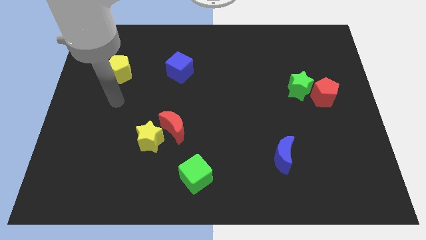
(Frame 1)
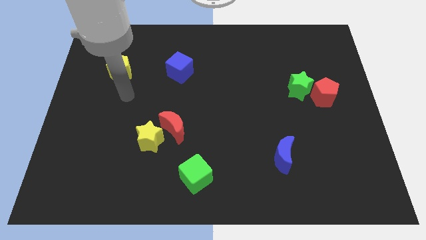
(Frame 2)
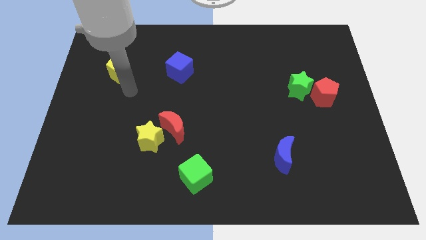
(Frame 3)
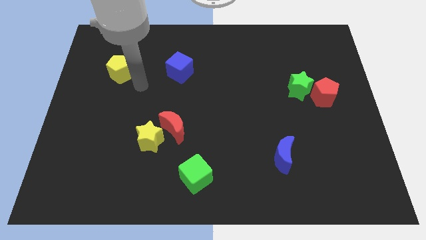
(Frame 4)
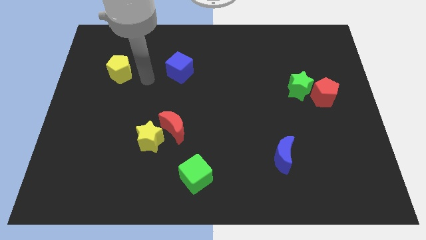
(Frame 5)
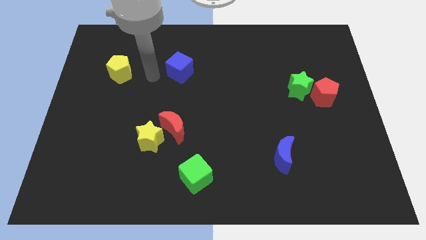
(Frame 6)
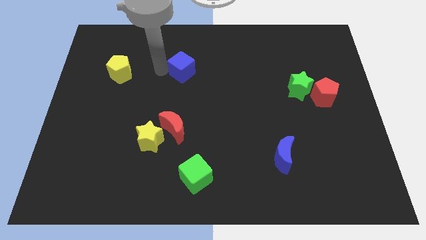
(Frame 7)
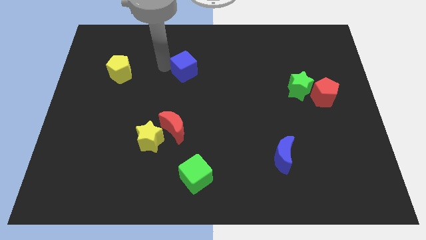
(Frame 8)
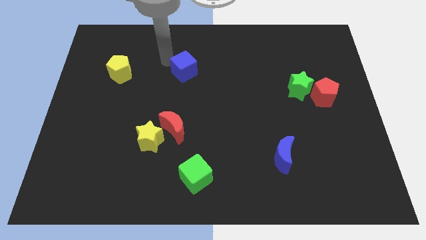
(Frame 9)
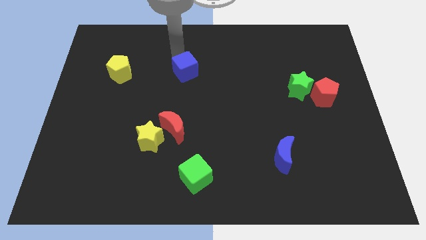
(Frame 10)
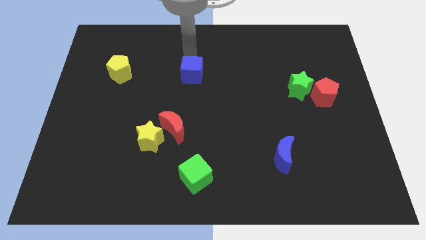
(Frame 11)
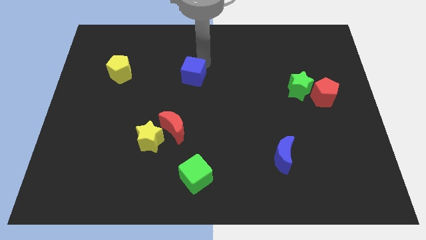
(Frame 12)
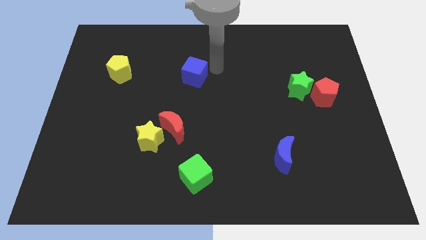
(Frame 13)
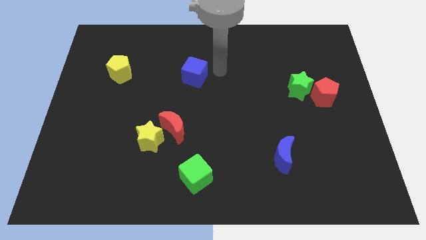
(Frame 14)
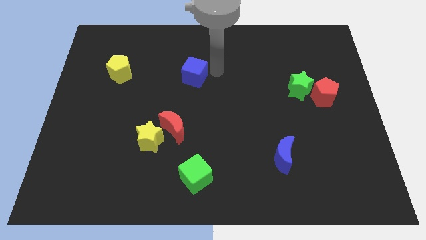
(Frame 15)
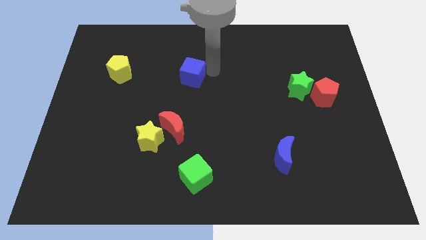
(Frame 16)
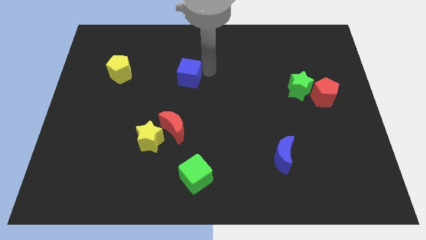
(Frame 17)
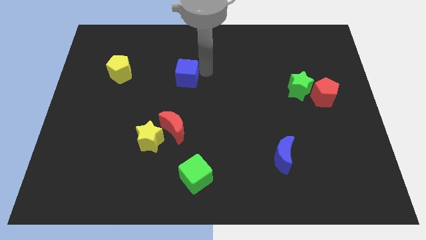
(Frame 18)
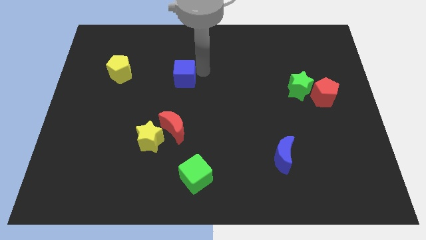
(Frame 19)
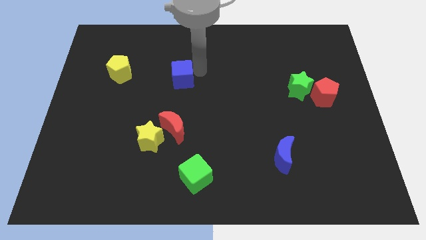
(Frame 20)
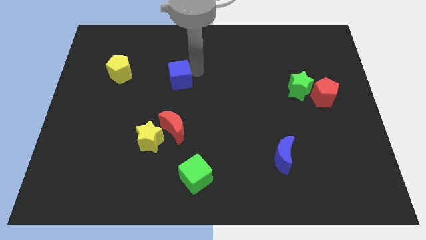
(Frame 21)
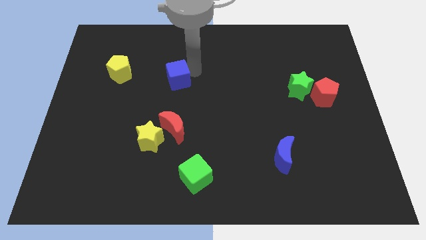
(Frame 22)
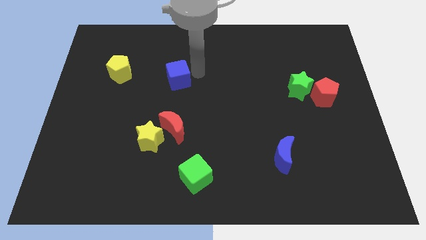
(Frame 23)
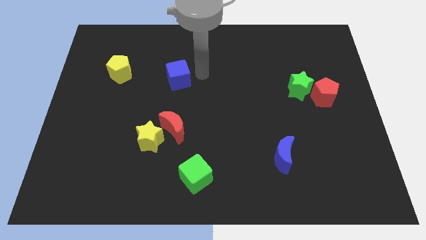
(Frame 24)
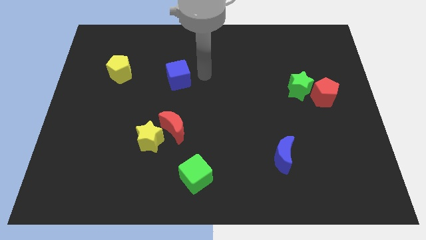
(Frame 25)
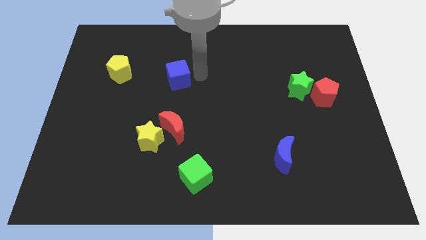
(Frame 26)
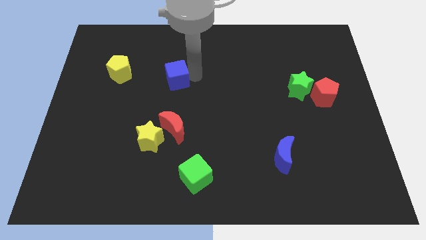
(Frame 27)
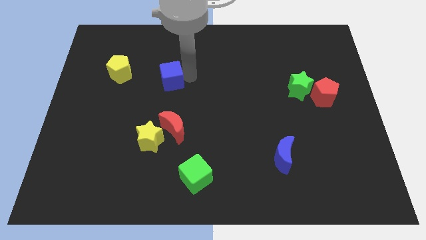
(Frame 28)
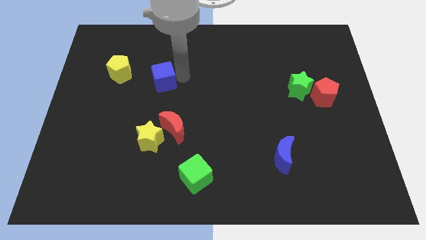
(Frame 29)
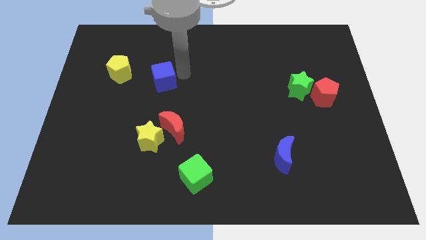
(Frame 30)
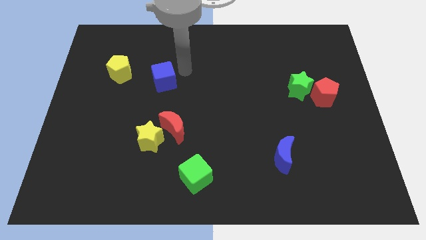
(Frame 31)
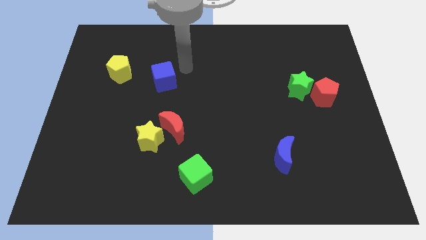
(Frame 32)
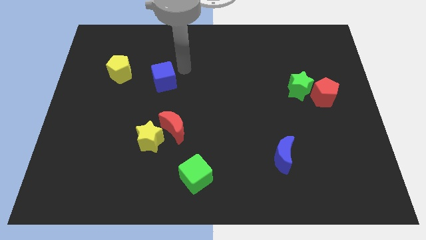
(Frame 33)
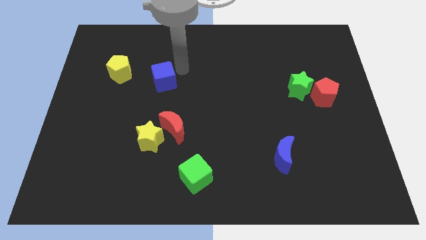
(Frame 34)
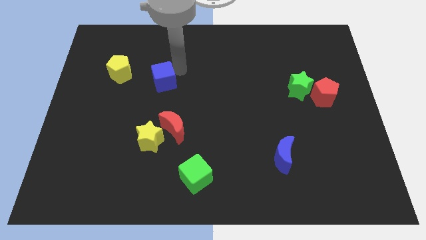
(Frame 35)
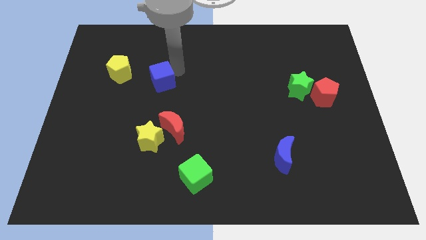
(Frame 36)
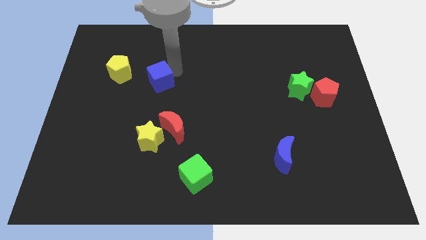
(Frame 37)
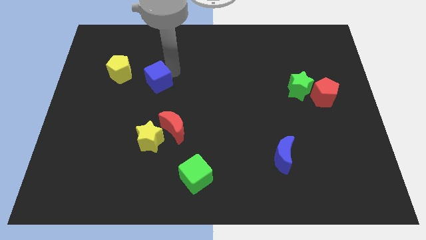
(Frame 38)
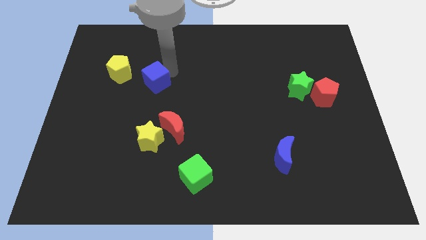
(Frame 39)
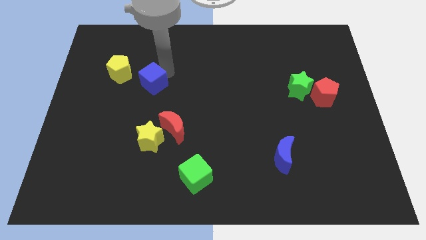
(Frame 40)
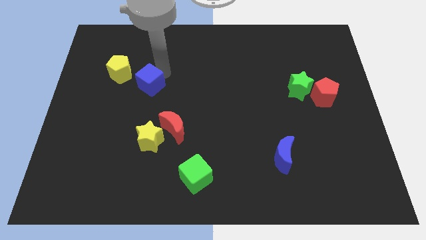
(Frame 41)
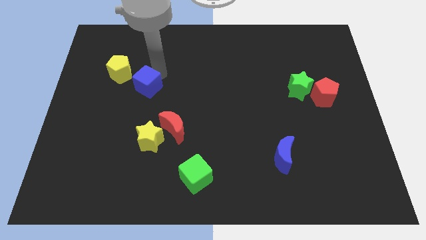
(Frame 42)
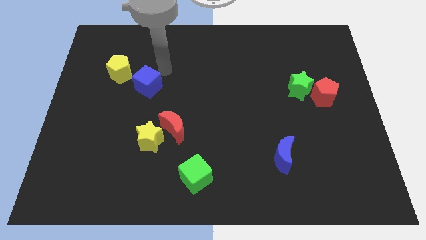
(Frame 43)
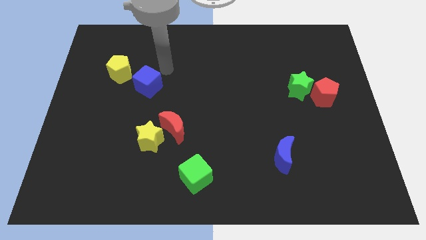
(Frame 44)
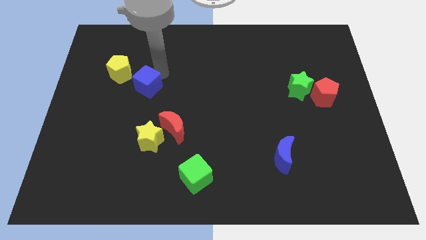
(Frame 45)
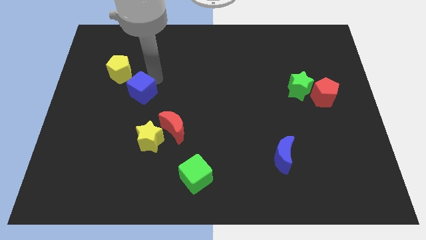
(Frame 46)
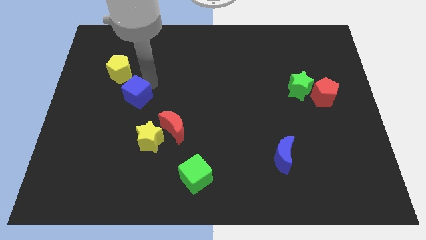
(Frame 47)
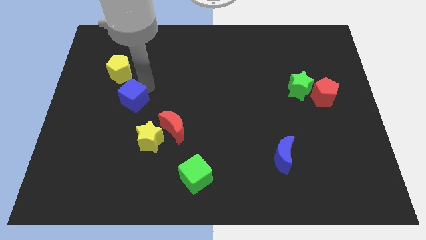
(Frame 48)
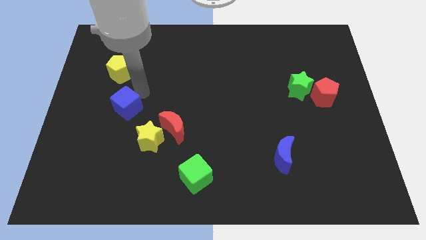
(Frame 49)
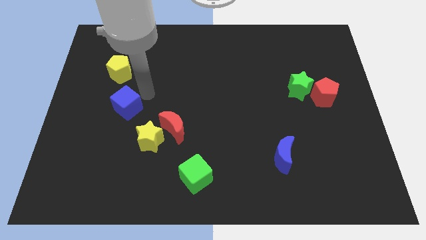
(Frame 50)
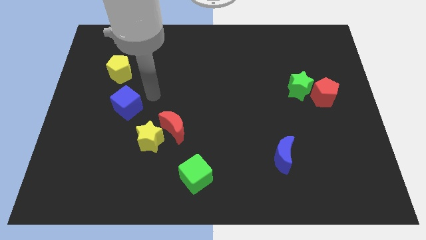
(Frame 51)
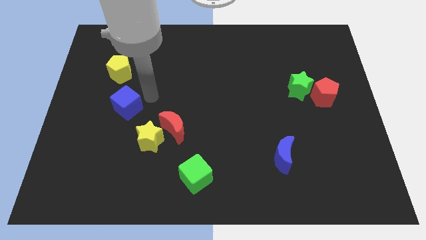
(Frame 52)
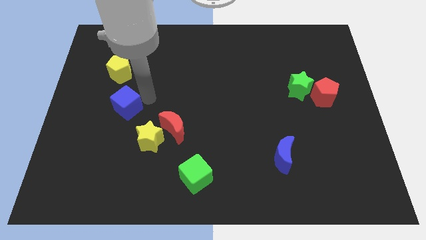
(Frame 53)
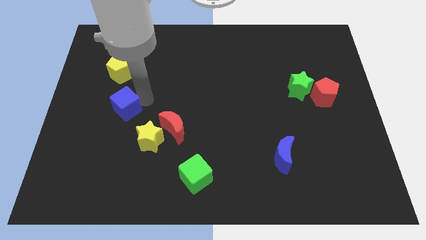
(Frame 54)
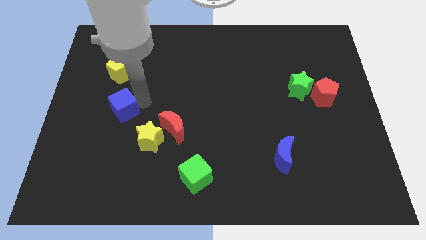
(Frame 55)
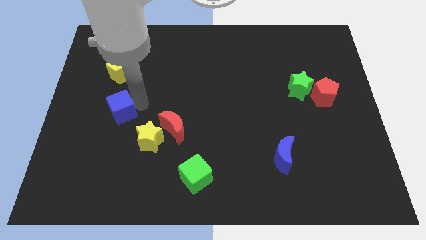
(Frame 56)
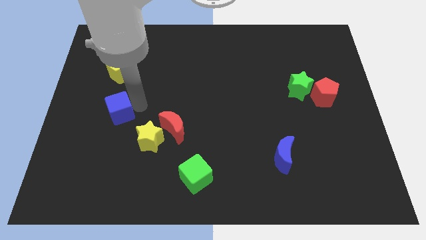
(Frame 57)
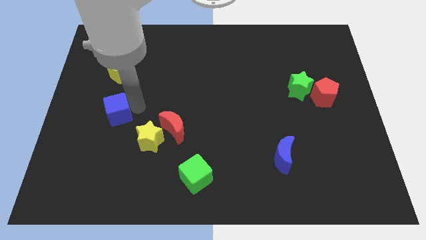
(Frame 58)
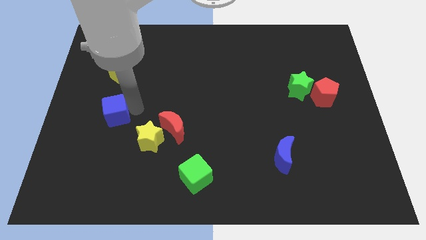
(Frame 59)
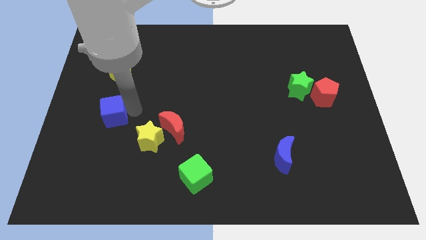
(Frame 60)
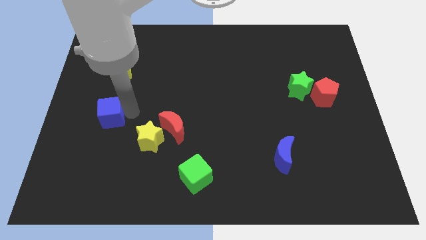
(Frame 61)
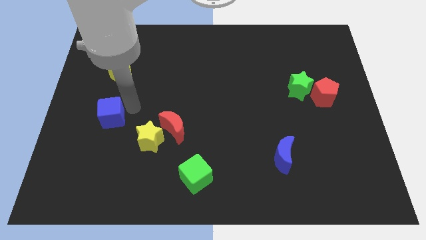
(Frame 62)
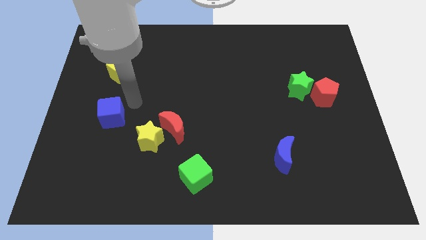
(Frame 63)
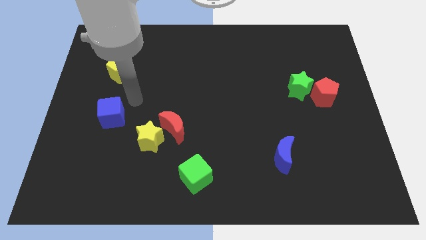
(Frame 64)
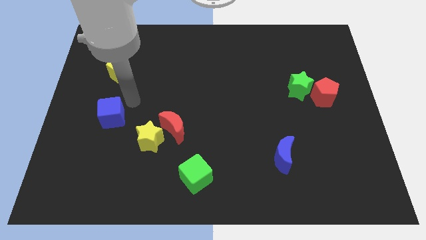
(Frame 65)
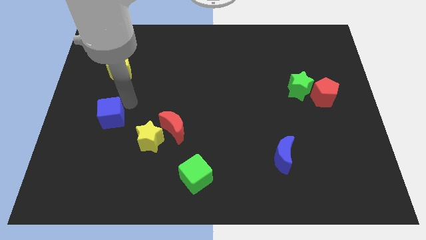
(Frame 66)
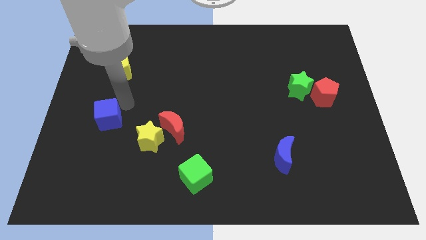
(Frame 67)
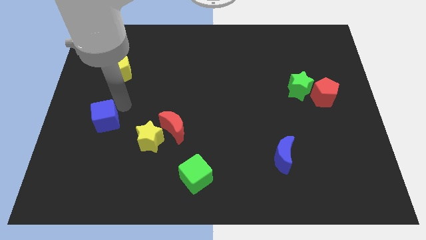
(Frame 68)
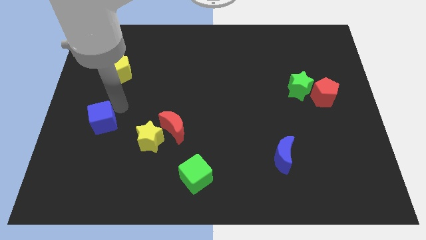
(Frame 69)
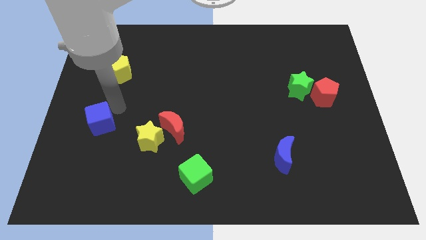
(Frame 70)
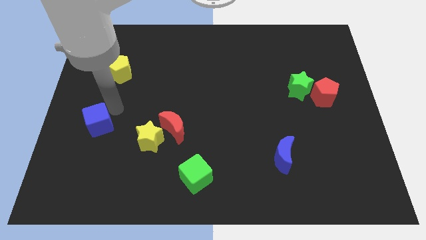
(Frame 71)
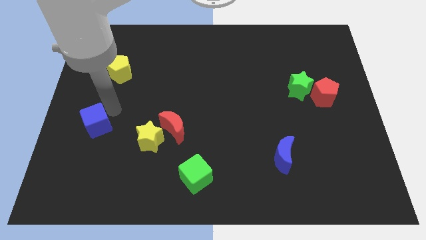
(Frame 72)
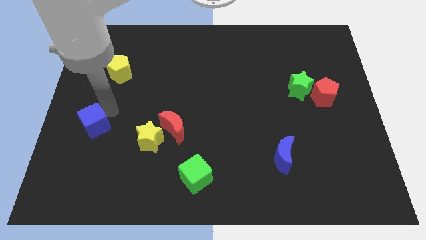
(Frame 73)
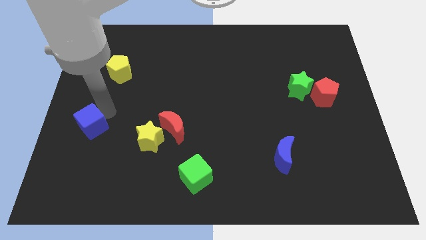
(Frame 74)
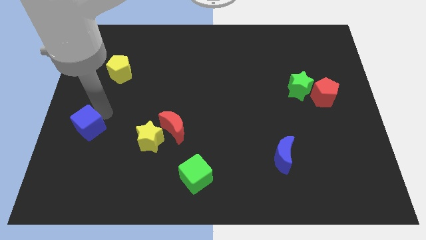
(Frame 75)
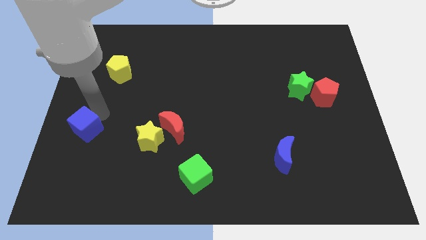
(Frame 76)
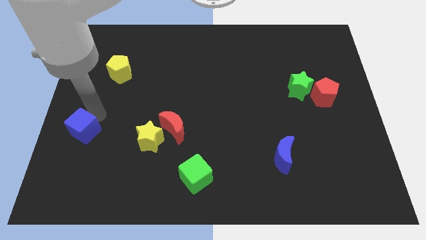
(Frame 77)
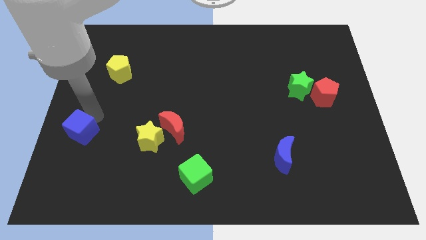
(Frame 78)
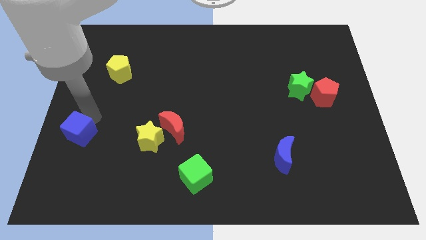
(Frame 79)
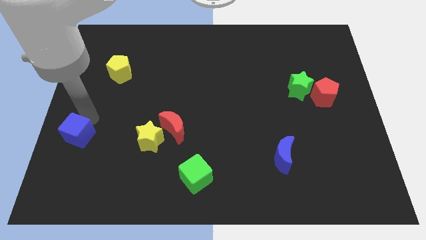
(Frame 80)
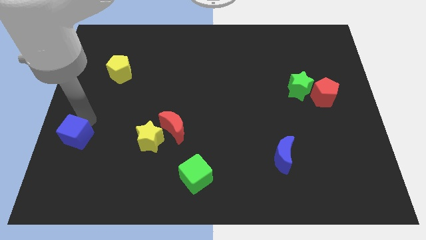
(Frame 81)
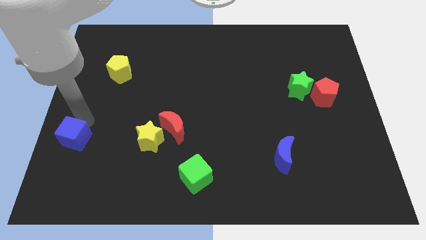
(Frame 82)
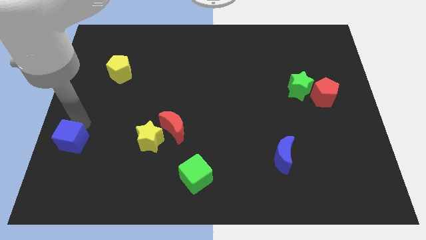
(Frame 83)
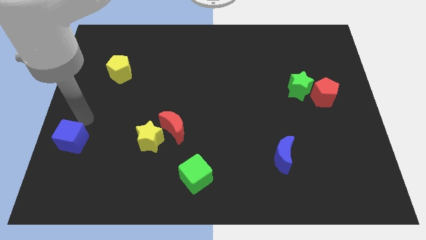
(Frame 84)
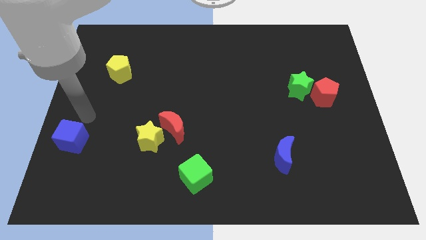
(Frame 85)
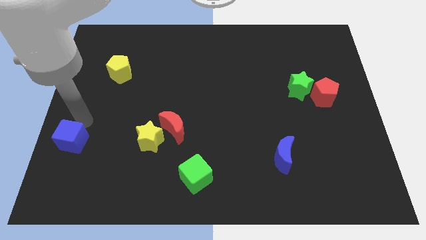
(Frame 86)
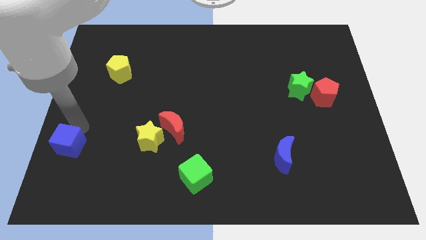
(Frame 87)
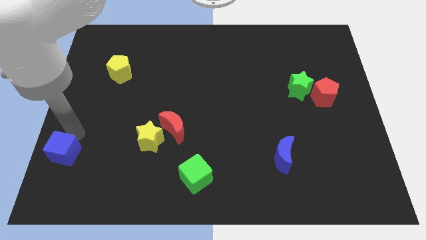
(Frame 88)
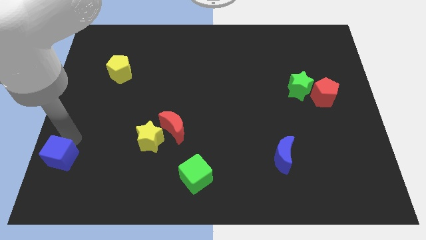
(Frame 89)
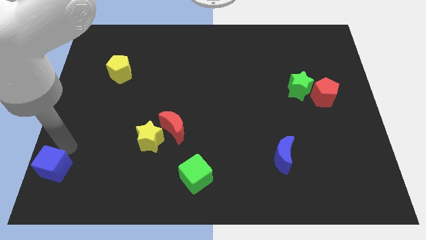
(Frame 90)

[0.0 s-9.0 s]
push the blue cube to the bottom left of the board
